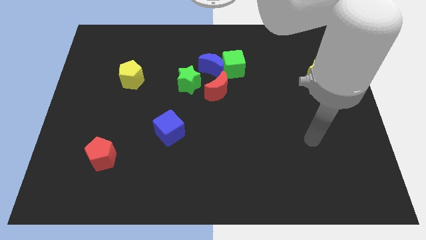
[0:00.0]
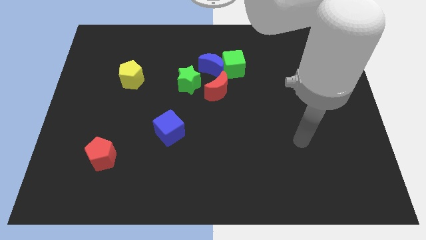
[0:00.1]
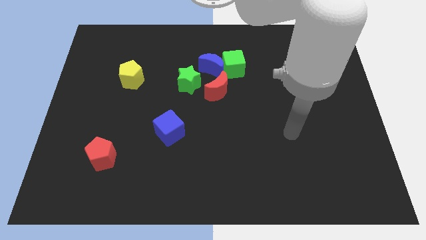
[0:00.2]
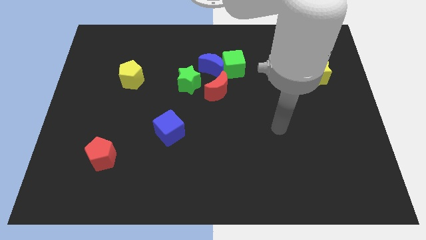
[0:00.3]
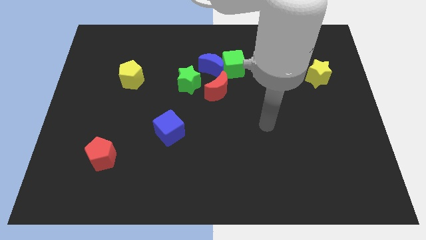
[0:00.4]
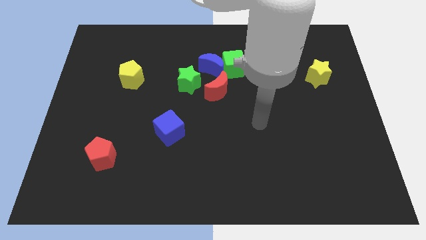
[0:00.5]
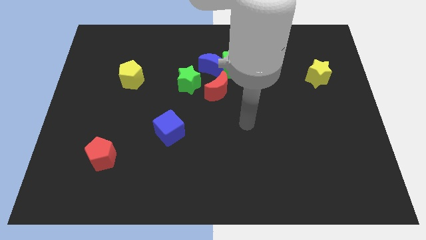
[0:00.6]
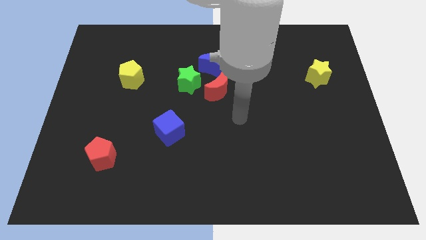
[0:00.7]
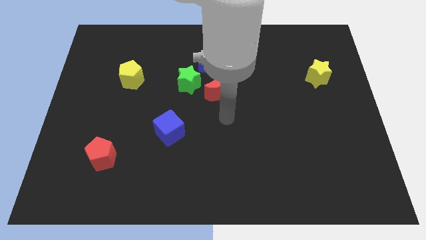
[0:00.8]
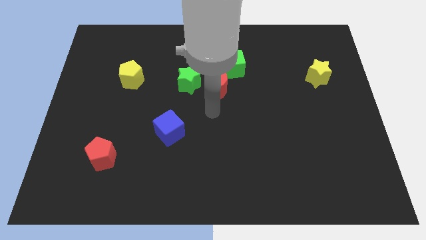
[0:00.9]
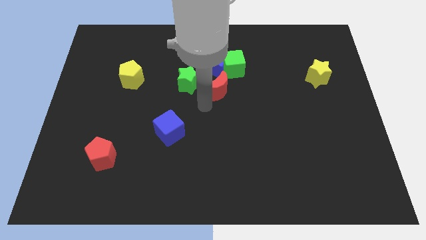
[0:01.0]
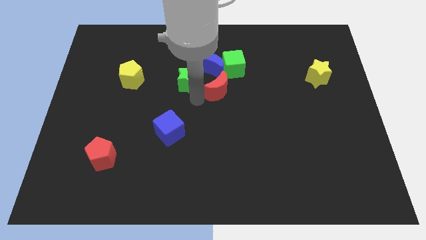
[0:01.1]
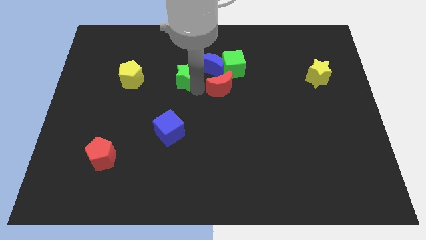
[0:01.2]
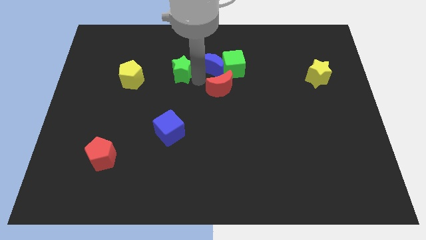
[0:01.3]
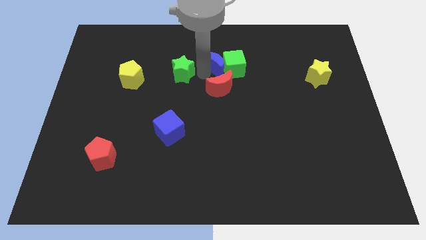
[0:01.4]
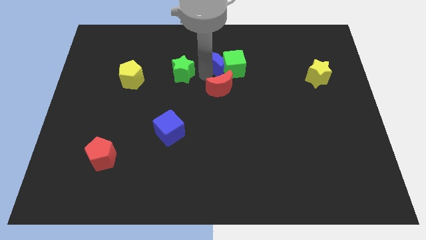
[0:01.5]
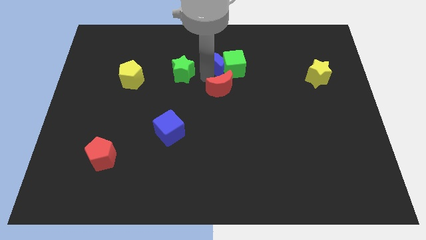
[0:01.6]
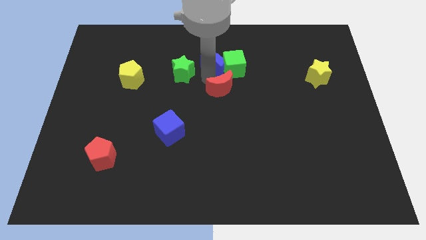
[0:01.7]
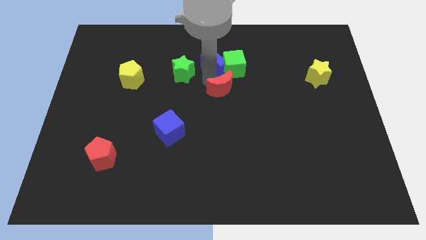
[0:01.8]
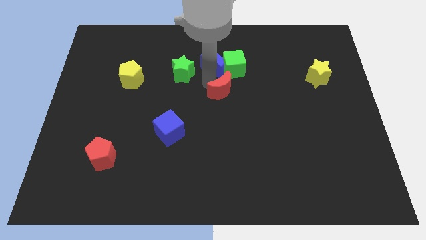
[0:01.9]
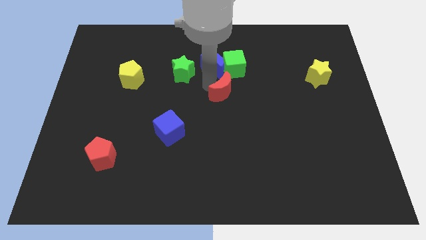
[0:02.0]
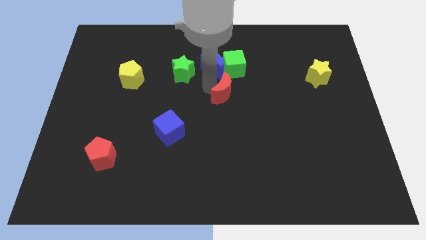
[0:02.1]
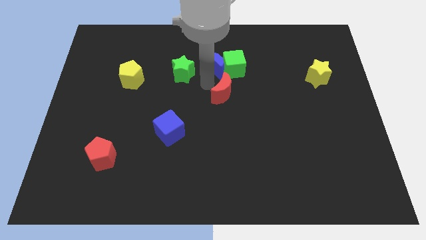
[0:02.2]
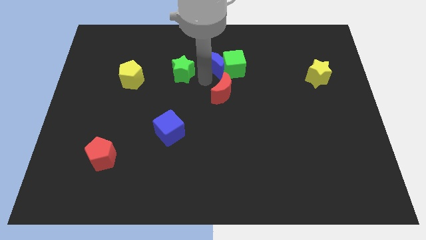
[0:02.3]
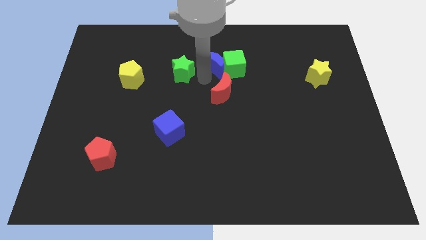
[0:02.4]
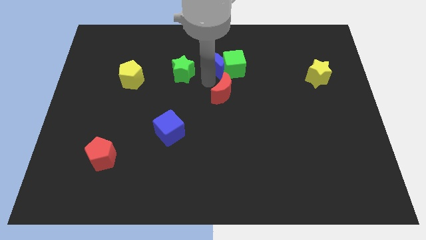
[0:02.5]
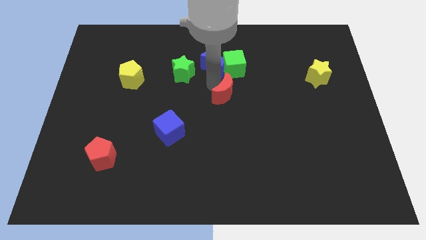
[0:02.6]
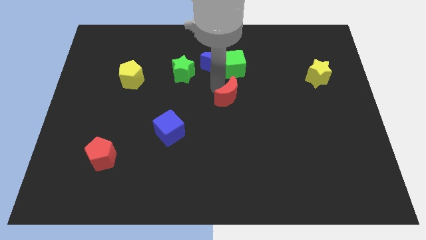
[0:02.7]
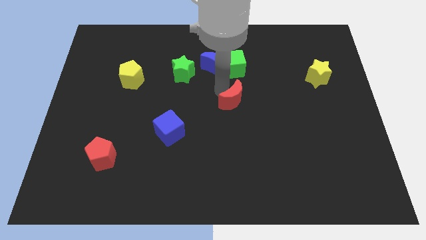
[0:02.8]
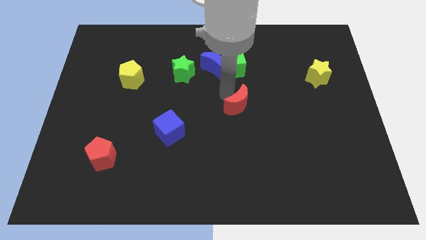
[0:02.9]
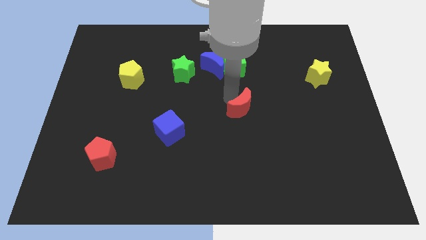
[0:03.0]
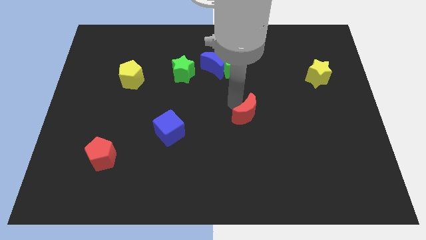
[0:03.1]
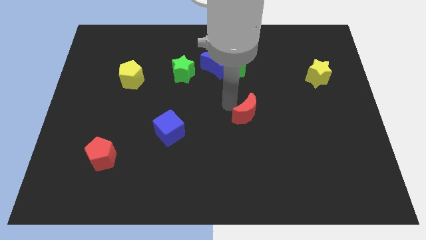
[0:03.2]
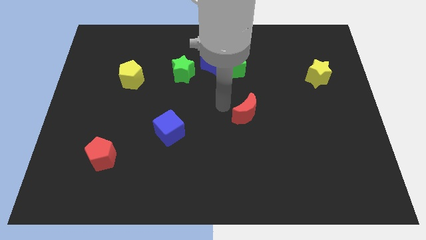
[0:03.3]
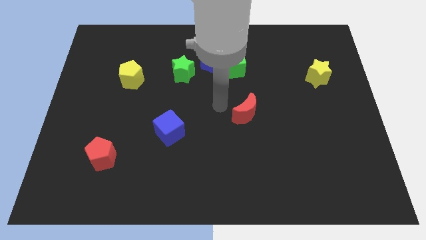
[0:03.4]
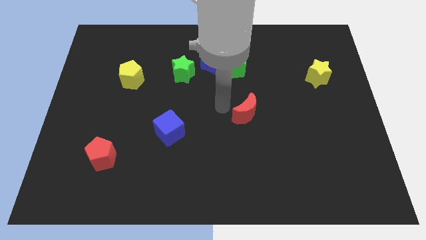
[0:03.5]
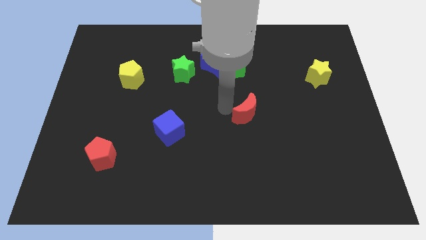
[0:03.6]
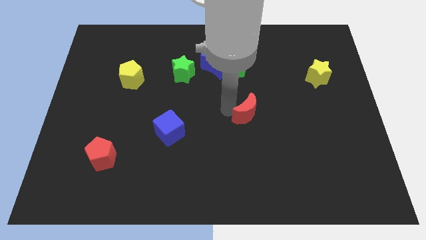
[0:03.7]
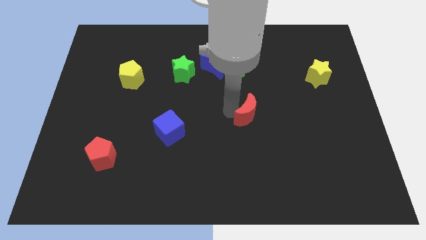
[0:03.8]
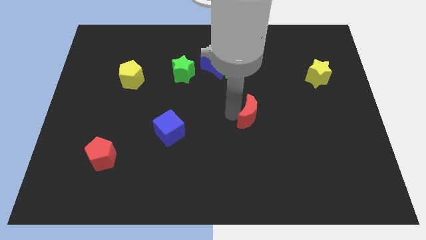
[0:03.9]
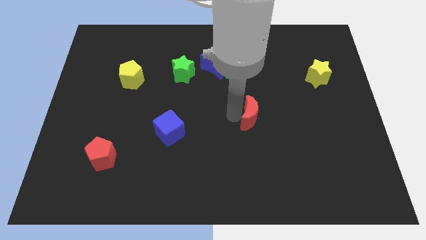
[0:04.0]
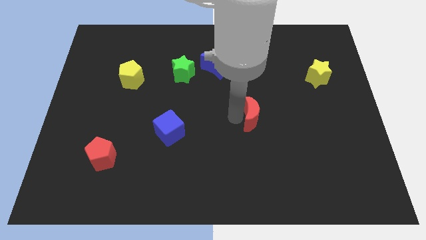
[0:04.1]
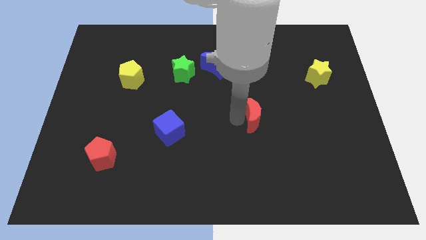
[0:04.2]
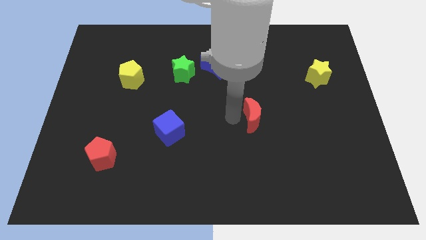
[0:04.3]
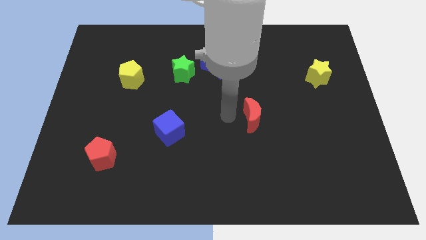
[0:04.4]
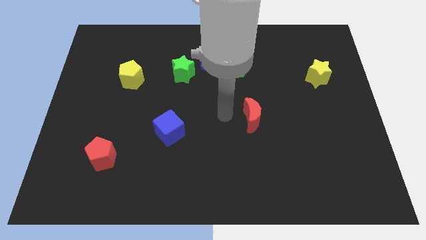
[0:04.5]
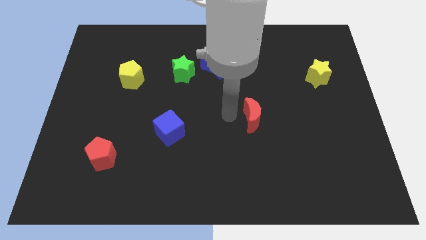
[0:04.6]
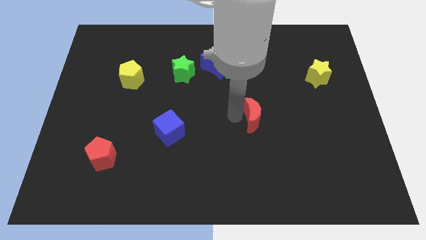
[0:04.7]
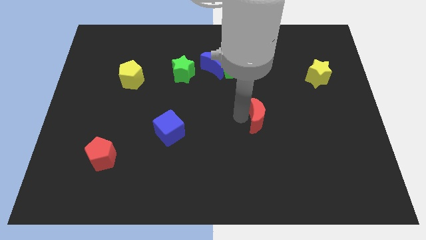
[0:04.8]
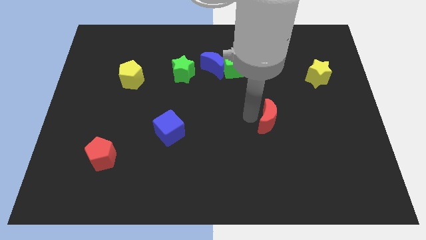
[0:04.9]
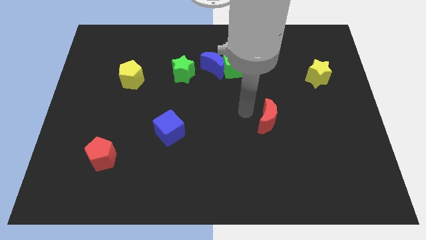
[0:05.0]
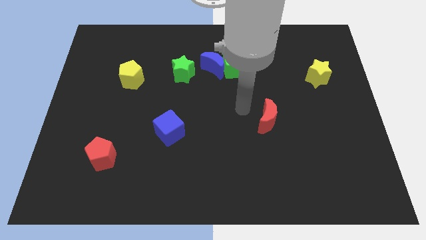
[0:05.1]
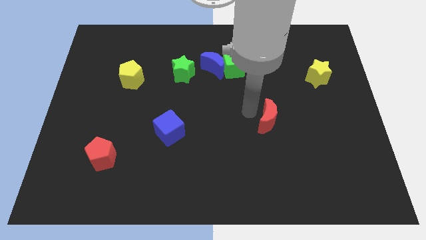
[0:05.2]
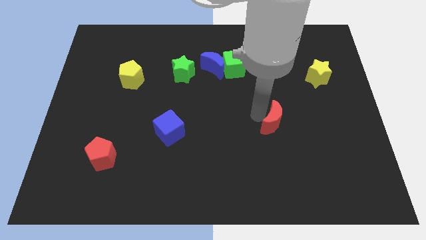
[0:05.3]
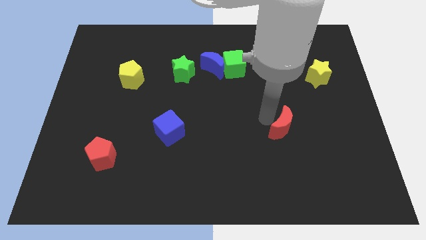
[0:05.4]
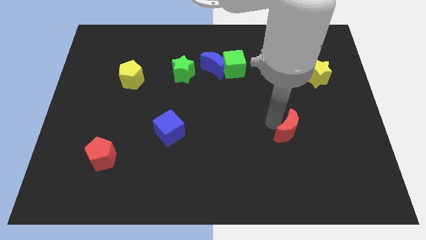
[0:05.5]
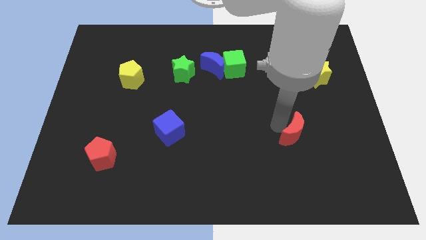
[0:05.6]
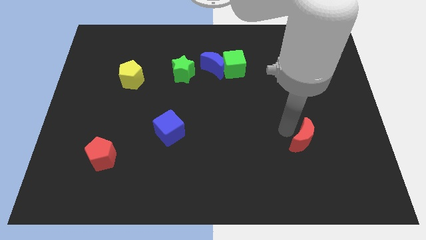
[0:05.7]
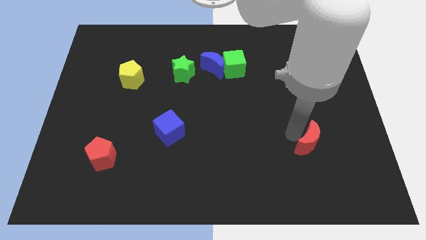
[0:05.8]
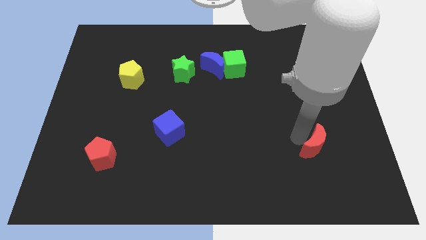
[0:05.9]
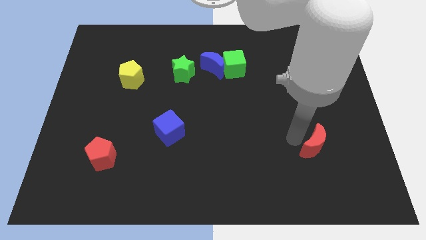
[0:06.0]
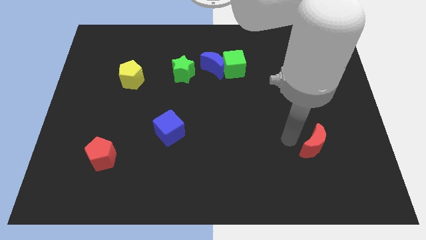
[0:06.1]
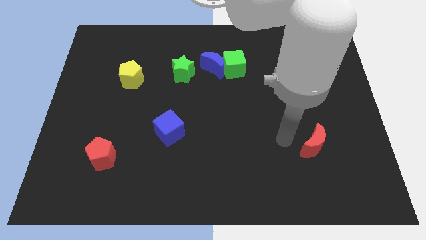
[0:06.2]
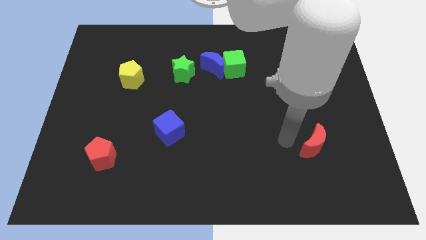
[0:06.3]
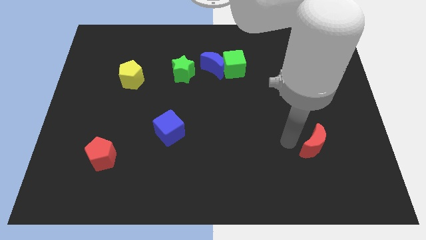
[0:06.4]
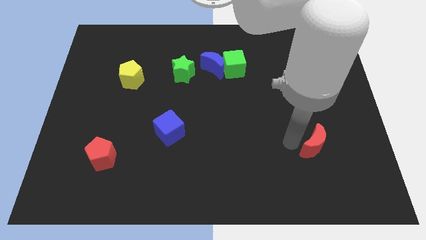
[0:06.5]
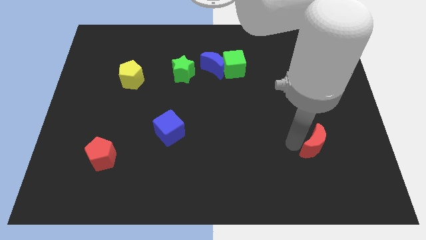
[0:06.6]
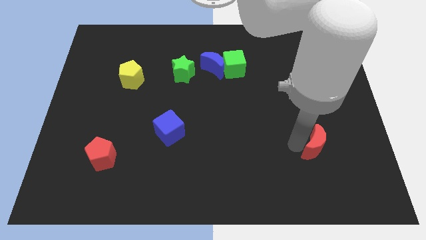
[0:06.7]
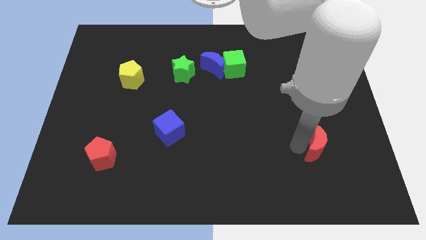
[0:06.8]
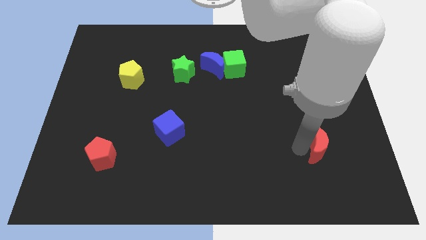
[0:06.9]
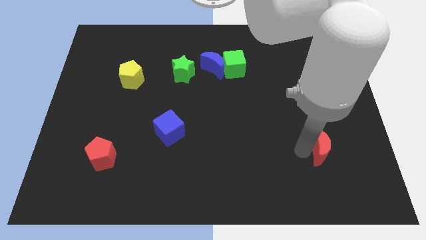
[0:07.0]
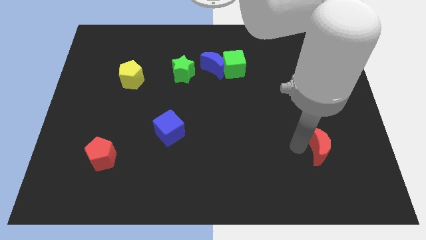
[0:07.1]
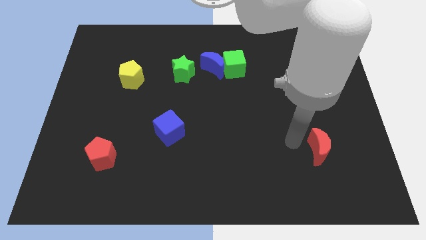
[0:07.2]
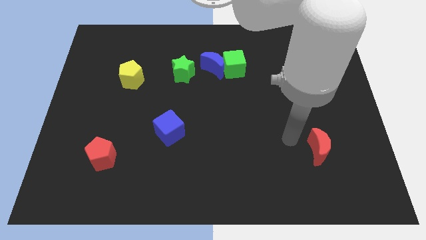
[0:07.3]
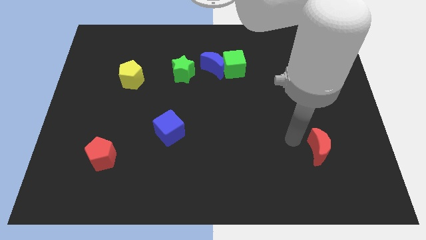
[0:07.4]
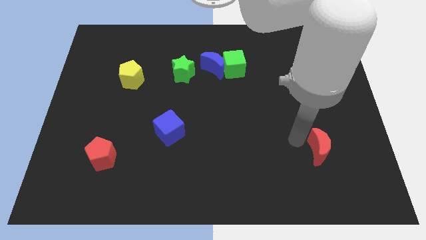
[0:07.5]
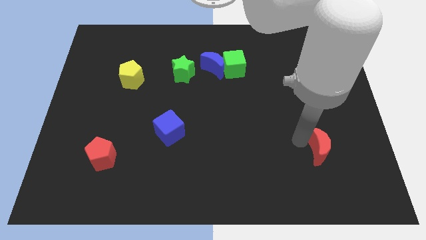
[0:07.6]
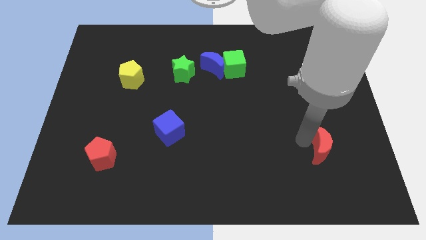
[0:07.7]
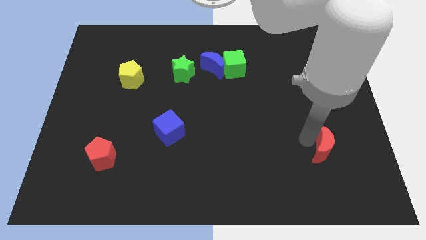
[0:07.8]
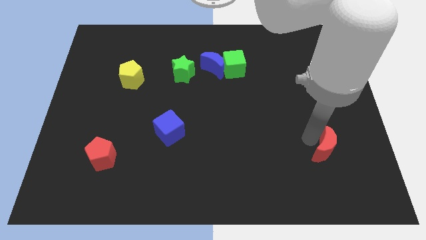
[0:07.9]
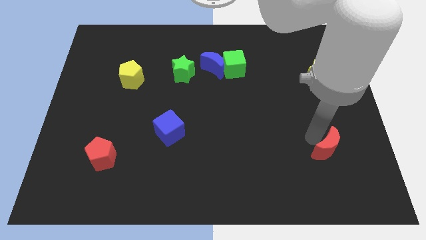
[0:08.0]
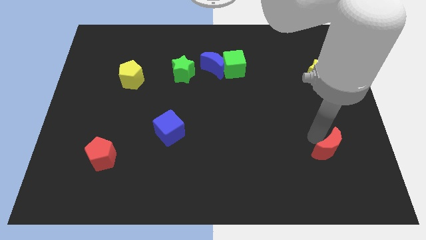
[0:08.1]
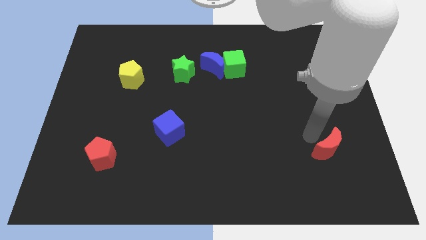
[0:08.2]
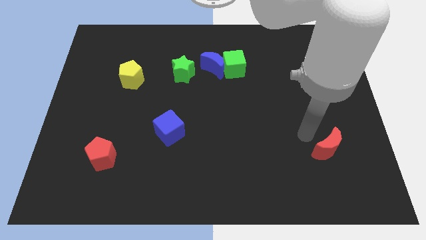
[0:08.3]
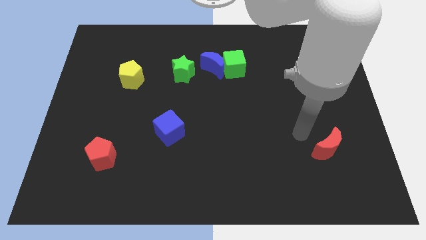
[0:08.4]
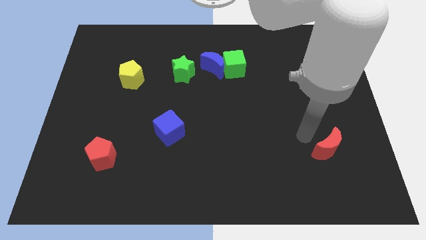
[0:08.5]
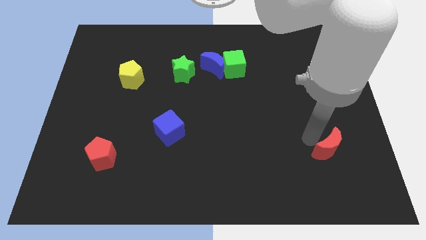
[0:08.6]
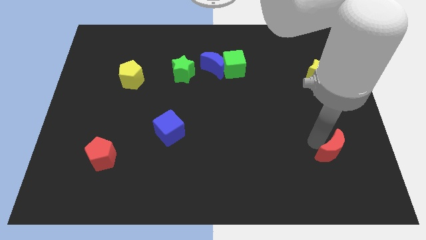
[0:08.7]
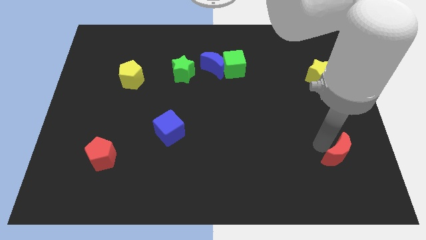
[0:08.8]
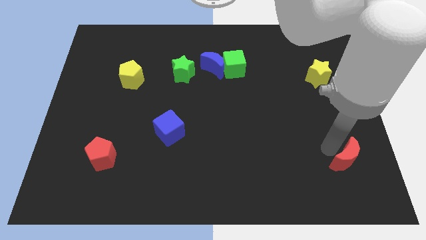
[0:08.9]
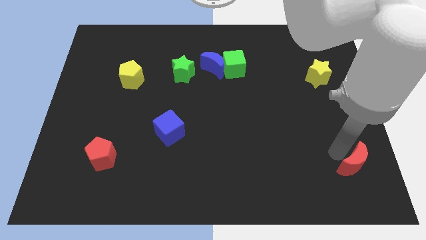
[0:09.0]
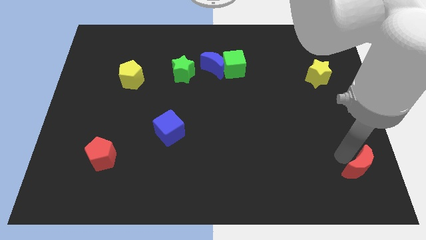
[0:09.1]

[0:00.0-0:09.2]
move the red moon to the bottom right
